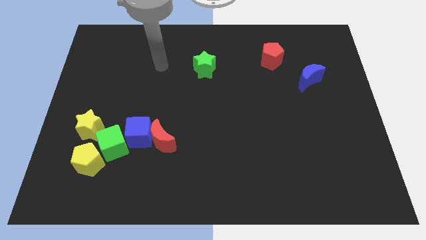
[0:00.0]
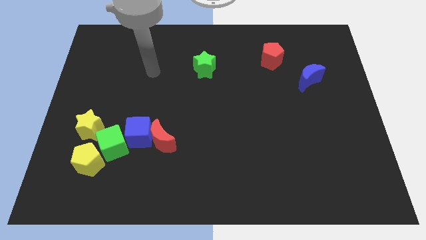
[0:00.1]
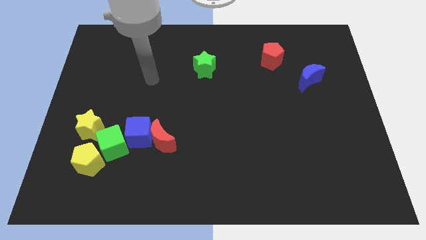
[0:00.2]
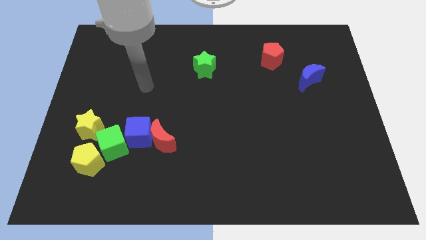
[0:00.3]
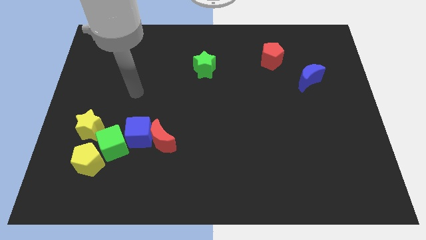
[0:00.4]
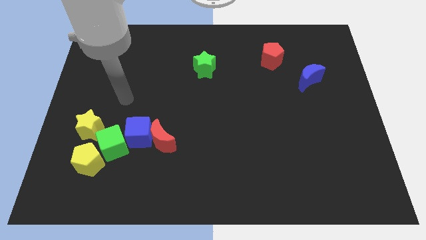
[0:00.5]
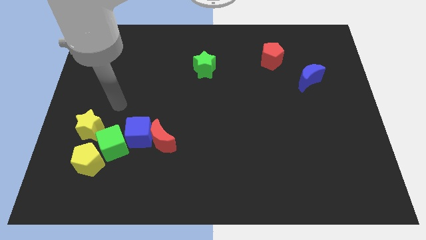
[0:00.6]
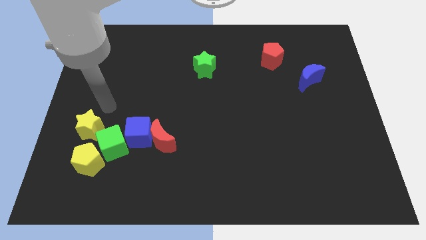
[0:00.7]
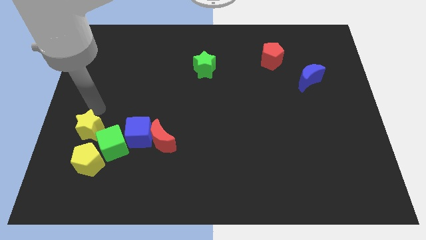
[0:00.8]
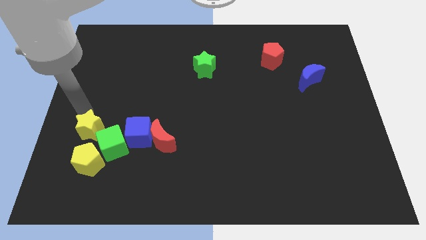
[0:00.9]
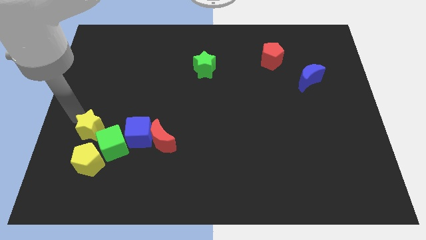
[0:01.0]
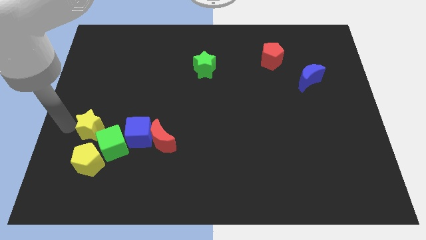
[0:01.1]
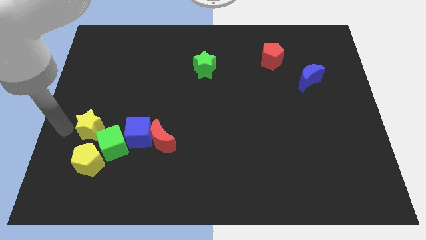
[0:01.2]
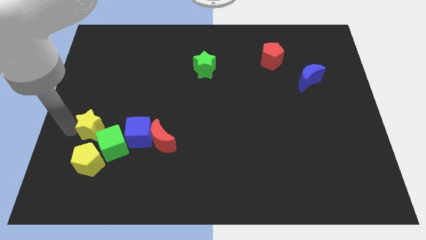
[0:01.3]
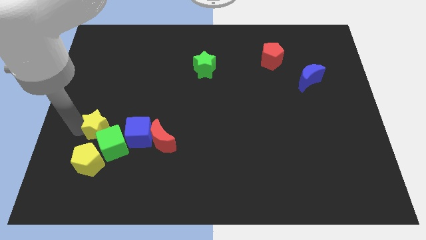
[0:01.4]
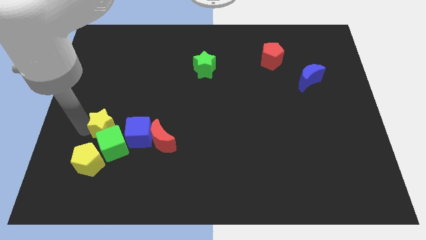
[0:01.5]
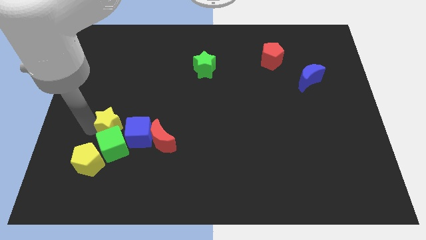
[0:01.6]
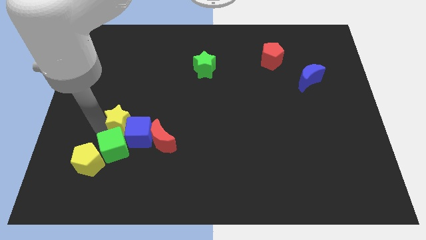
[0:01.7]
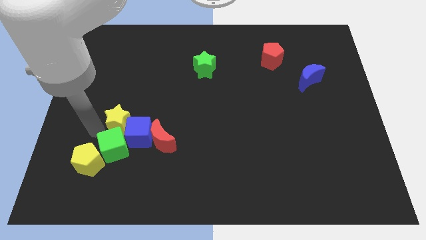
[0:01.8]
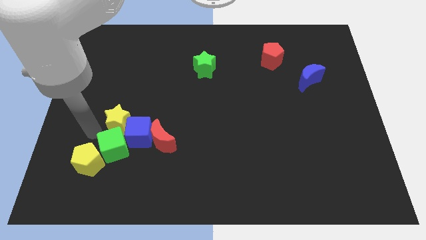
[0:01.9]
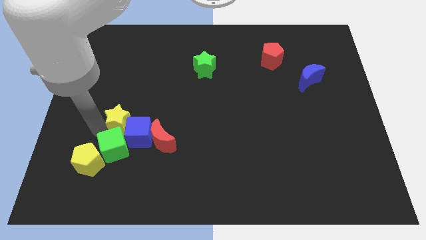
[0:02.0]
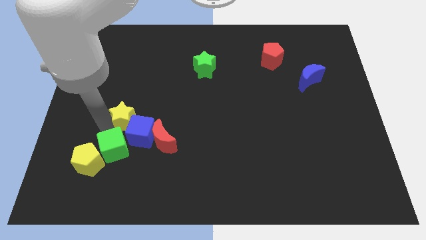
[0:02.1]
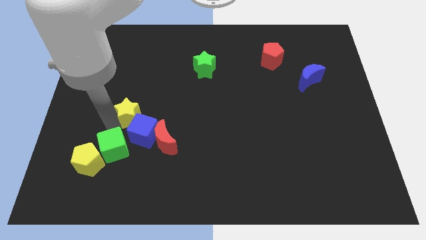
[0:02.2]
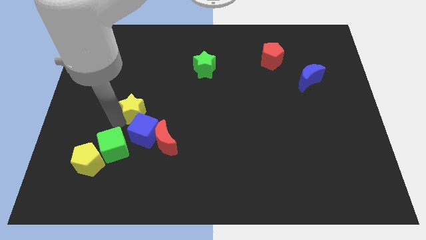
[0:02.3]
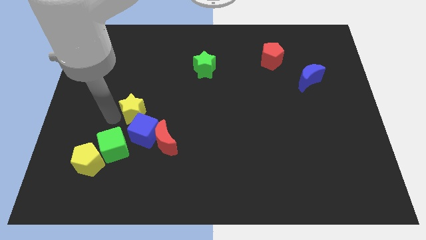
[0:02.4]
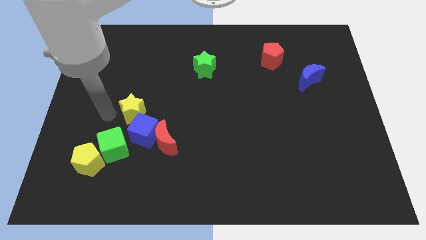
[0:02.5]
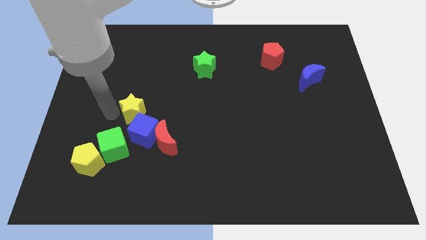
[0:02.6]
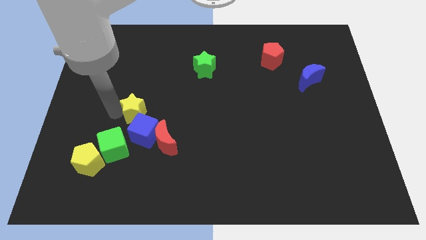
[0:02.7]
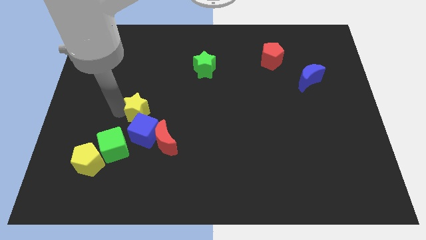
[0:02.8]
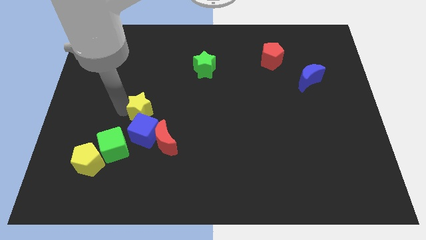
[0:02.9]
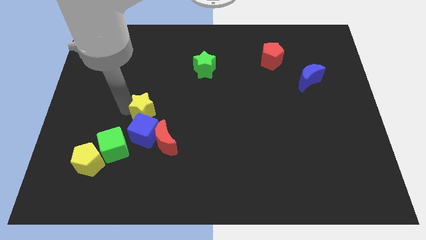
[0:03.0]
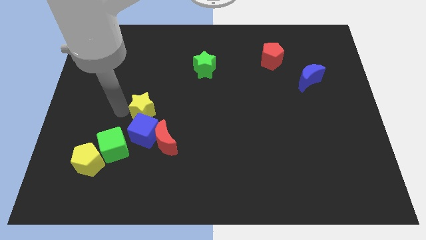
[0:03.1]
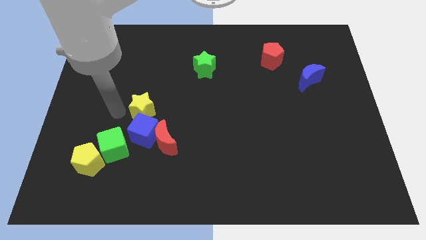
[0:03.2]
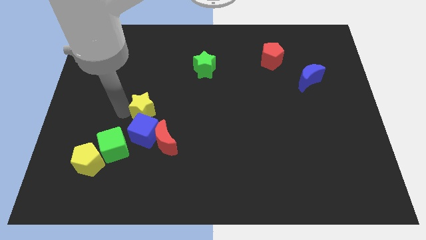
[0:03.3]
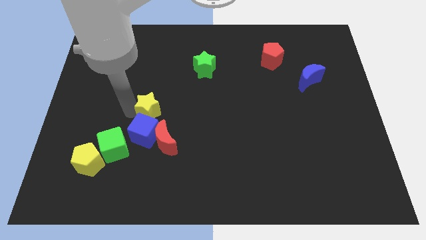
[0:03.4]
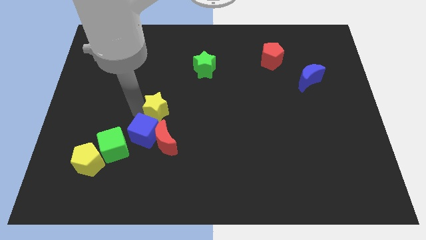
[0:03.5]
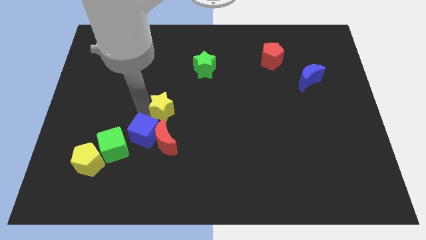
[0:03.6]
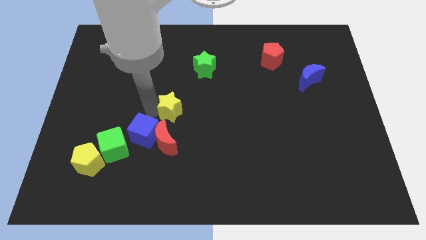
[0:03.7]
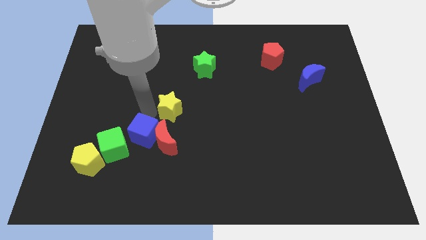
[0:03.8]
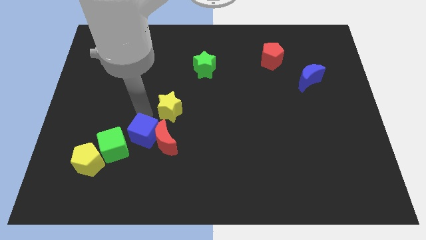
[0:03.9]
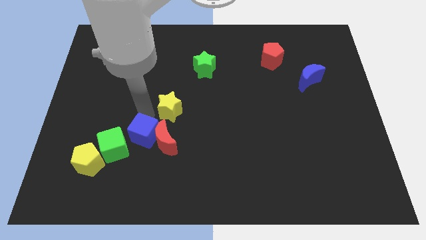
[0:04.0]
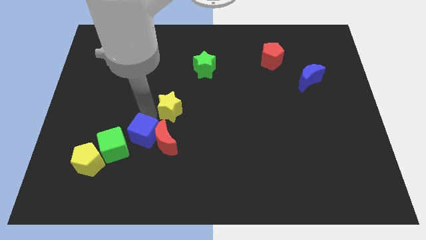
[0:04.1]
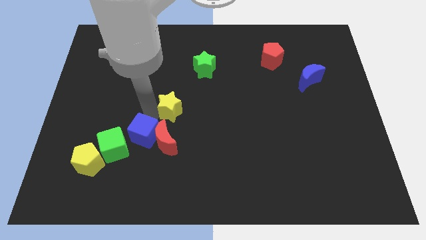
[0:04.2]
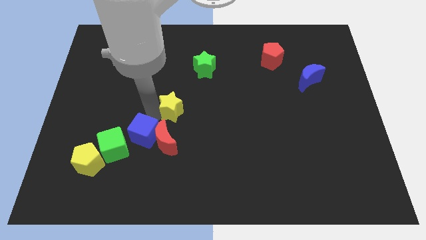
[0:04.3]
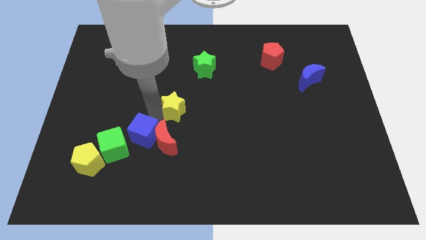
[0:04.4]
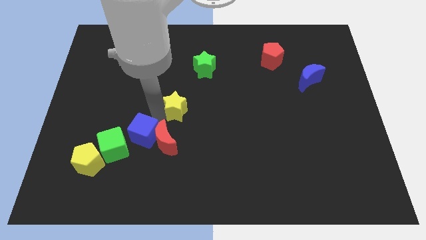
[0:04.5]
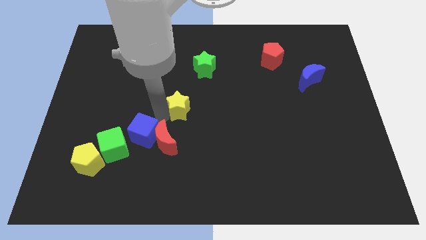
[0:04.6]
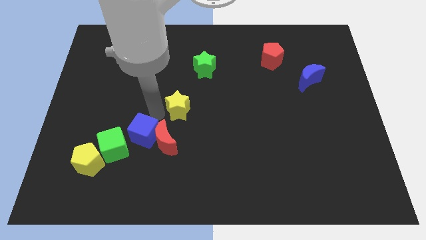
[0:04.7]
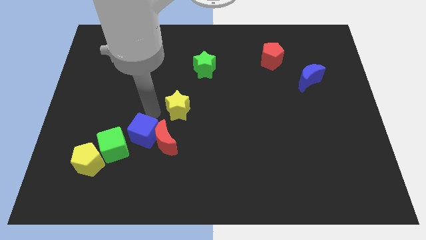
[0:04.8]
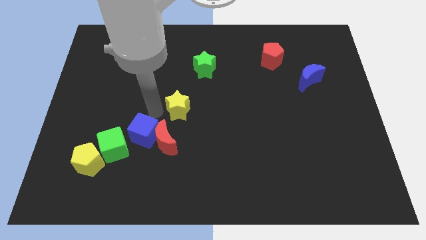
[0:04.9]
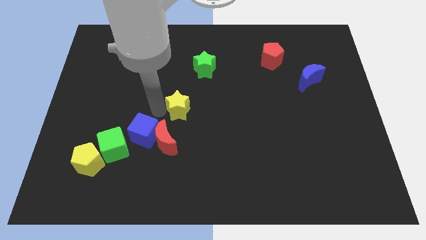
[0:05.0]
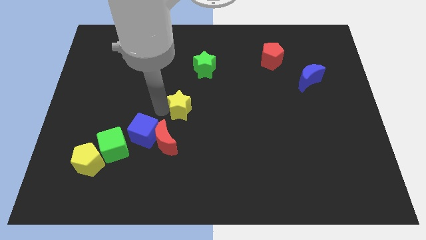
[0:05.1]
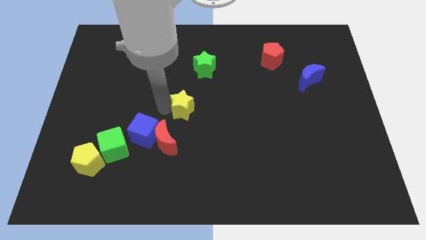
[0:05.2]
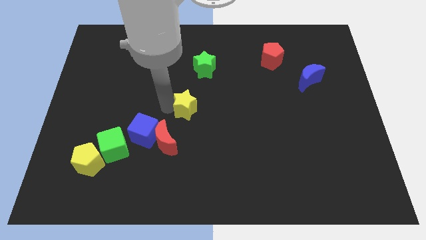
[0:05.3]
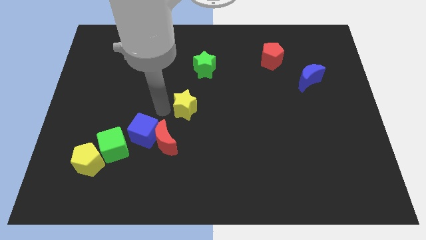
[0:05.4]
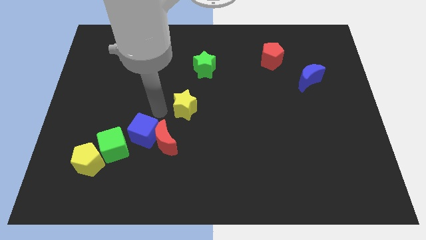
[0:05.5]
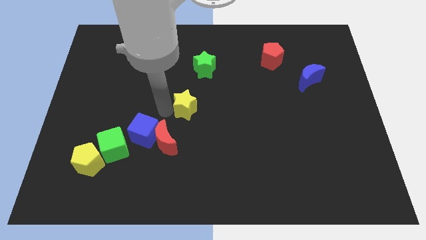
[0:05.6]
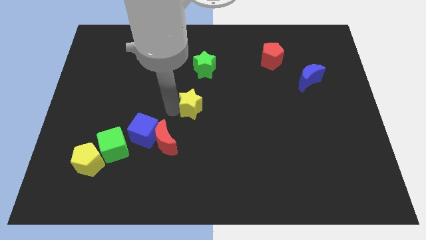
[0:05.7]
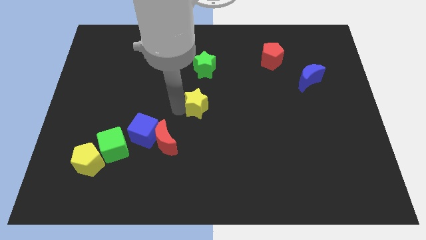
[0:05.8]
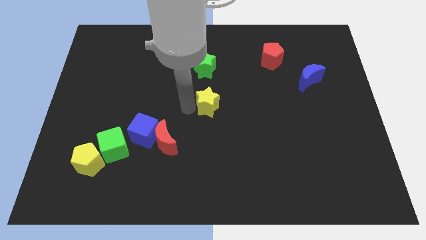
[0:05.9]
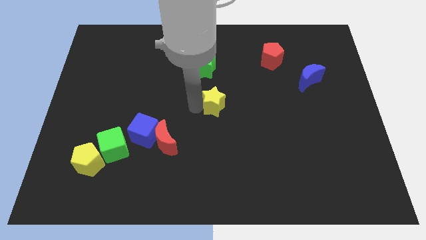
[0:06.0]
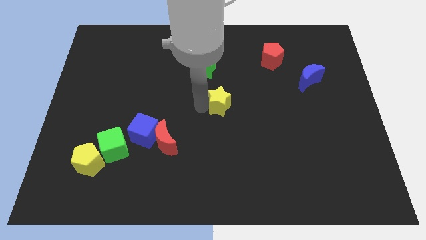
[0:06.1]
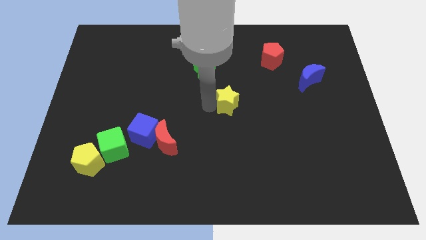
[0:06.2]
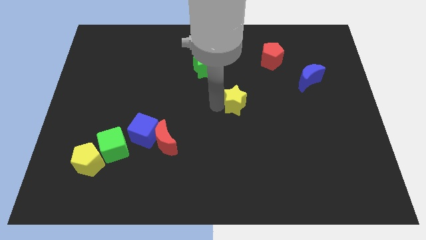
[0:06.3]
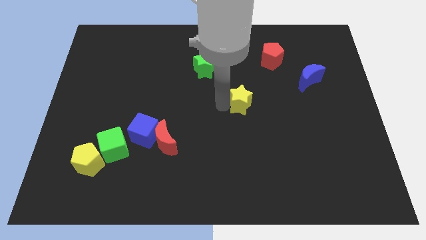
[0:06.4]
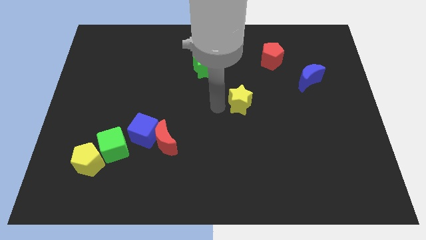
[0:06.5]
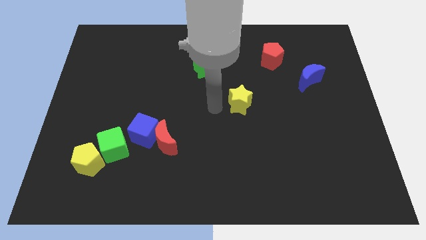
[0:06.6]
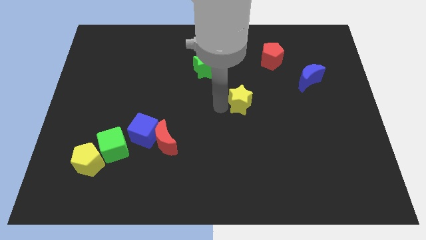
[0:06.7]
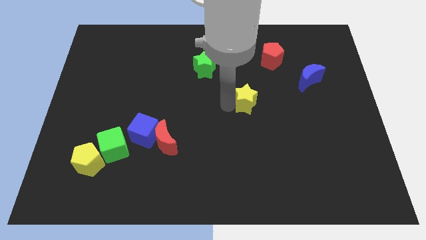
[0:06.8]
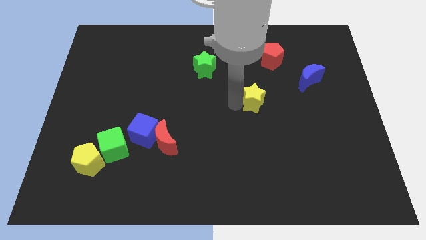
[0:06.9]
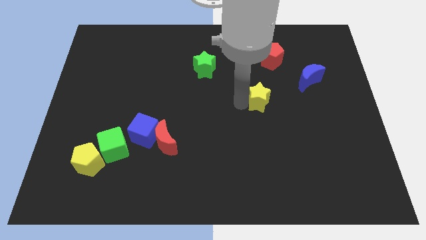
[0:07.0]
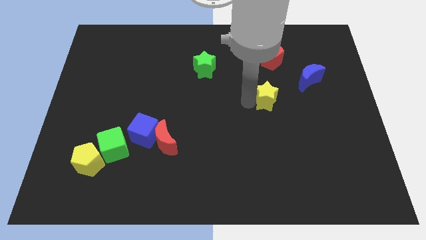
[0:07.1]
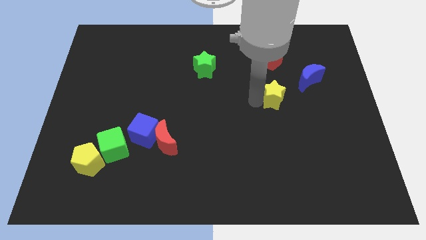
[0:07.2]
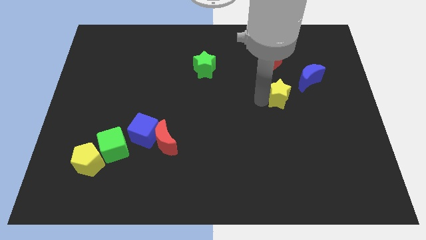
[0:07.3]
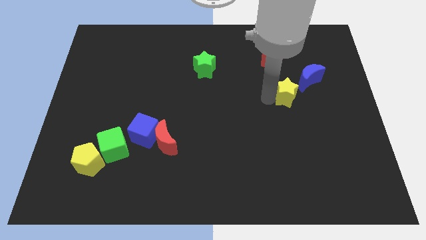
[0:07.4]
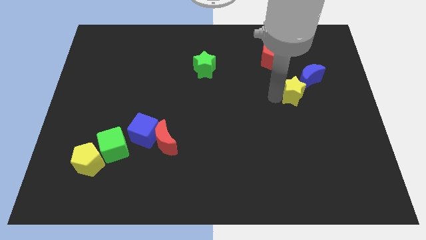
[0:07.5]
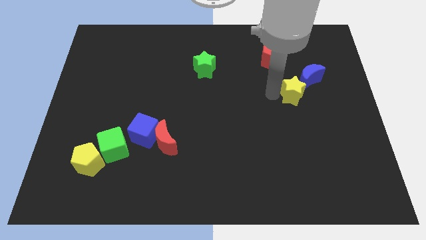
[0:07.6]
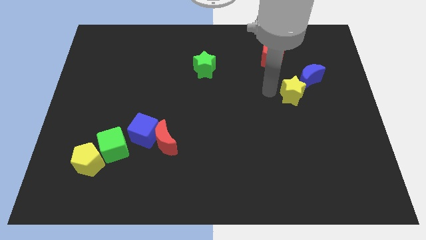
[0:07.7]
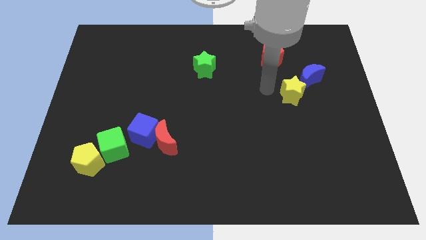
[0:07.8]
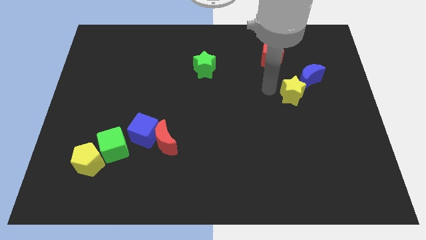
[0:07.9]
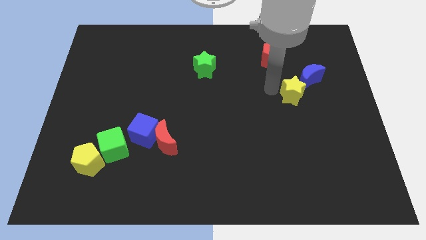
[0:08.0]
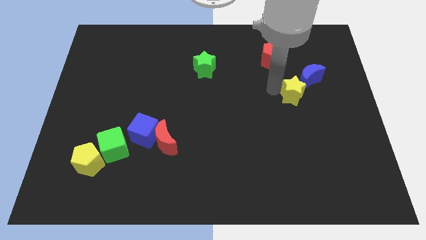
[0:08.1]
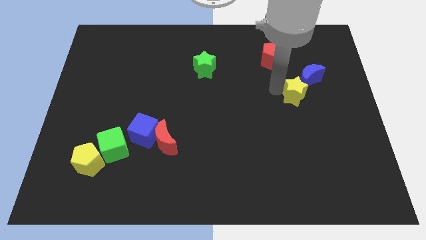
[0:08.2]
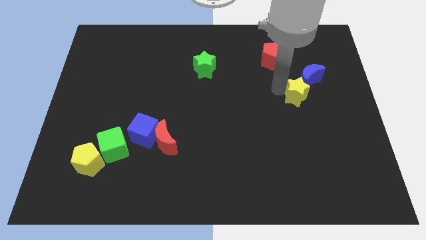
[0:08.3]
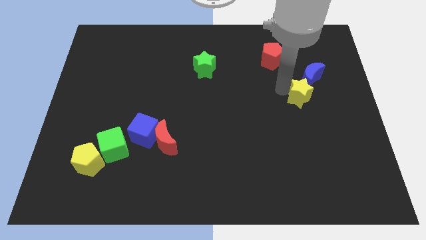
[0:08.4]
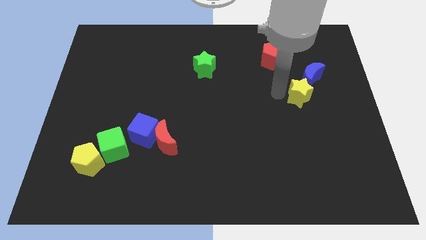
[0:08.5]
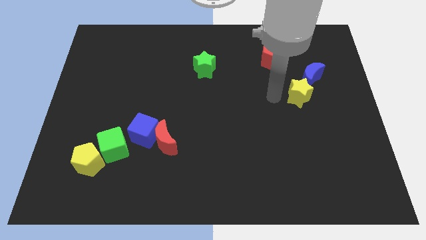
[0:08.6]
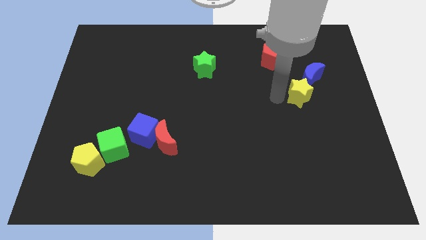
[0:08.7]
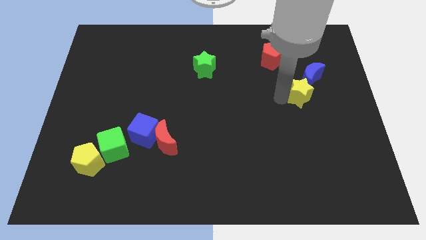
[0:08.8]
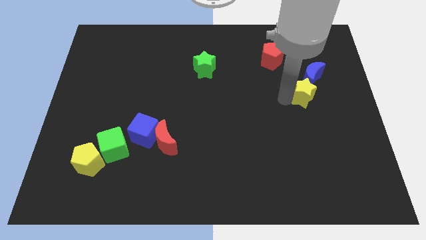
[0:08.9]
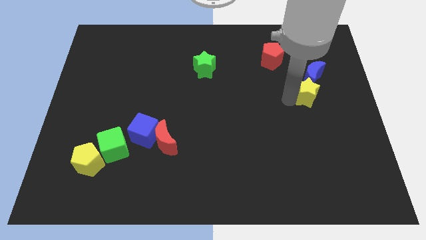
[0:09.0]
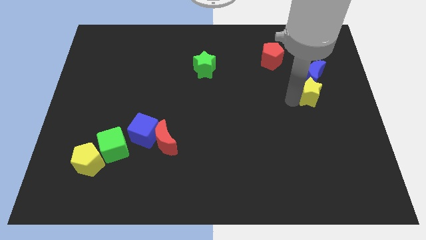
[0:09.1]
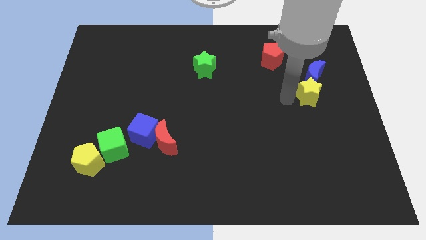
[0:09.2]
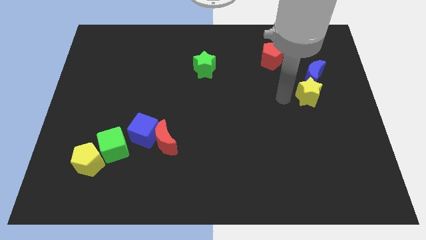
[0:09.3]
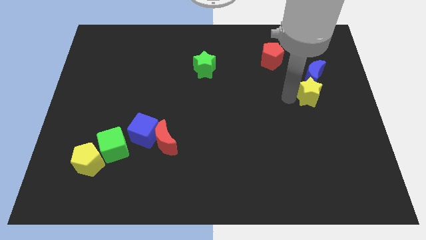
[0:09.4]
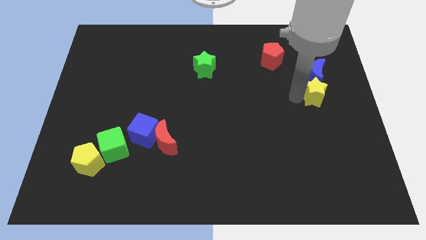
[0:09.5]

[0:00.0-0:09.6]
put the yellow star to the bottom right of the blue moon
